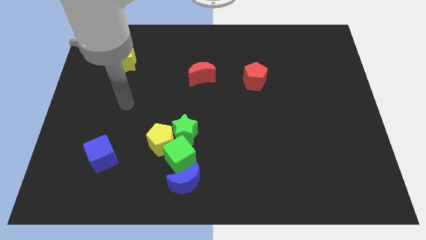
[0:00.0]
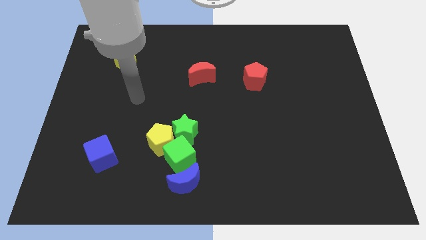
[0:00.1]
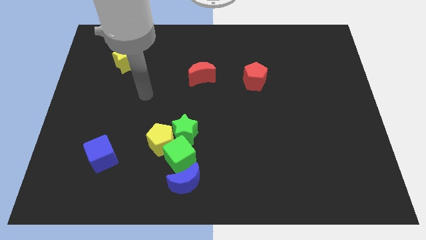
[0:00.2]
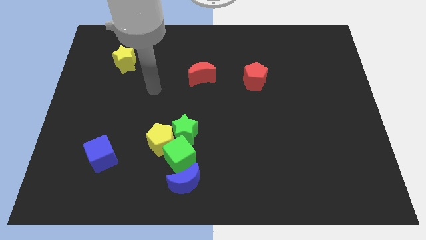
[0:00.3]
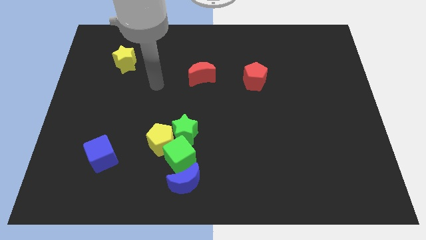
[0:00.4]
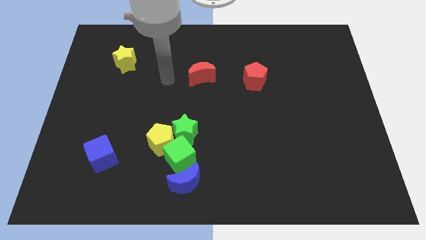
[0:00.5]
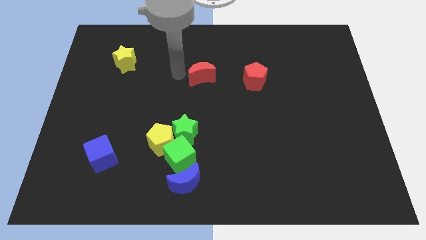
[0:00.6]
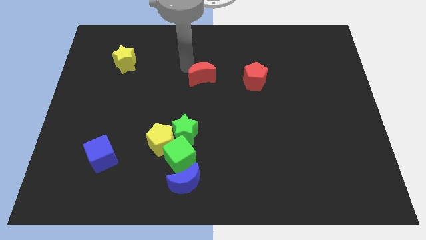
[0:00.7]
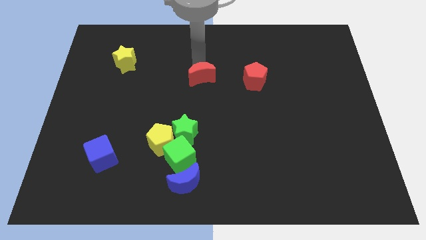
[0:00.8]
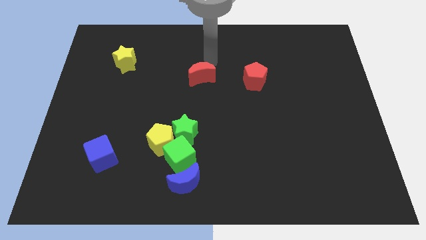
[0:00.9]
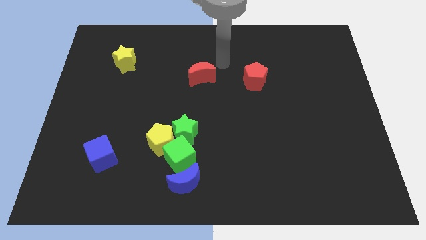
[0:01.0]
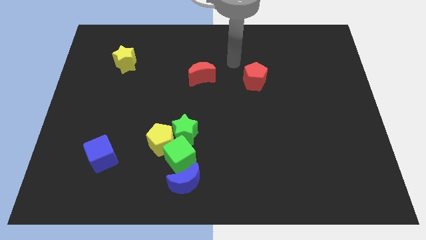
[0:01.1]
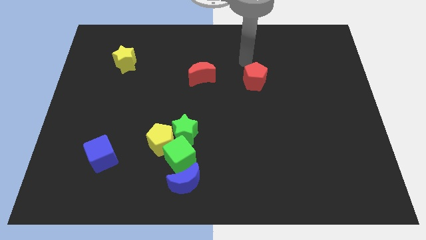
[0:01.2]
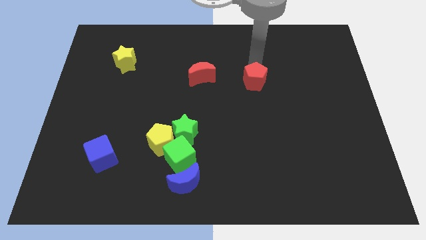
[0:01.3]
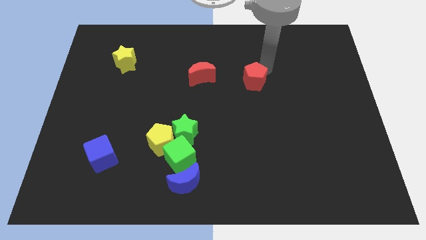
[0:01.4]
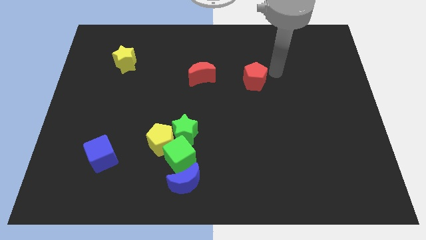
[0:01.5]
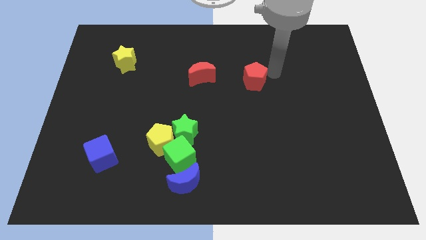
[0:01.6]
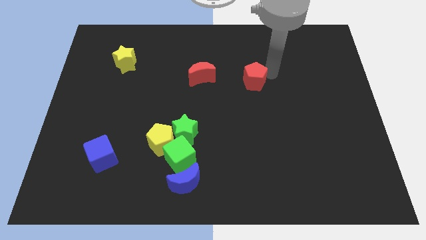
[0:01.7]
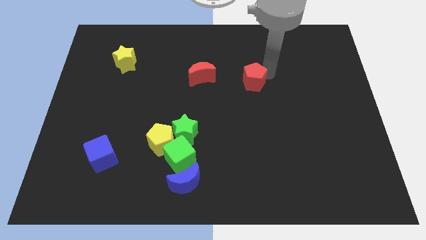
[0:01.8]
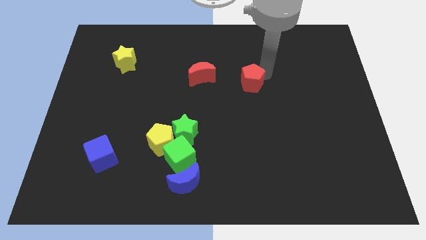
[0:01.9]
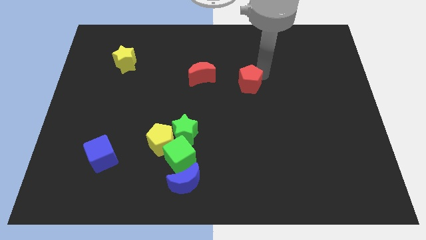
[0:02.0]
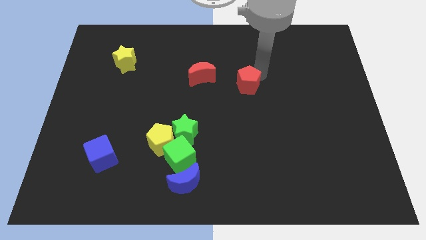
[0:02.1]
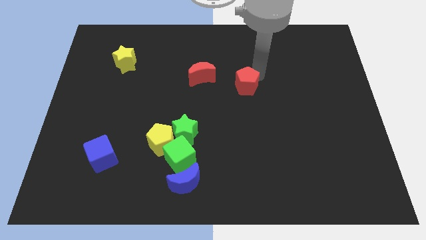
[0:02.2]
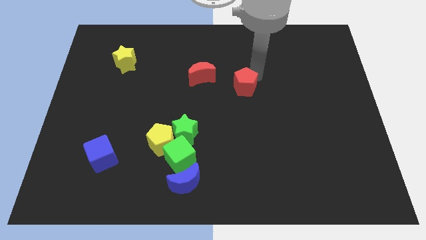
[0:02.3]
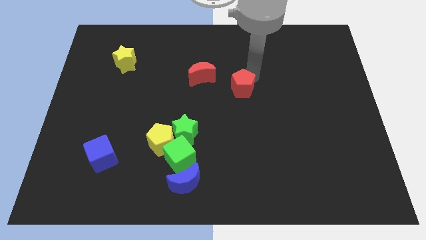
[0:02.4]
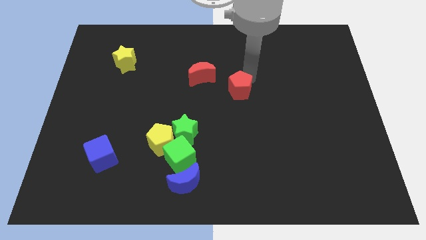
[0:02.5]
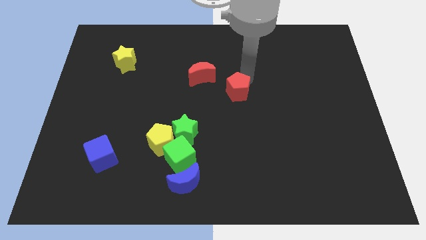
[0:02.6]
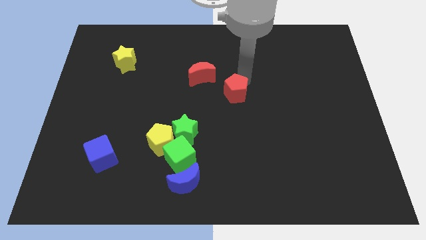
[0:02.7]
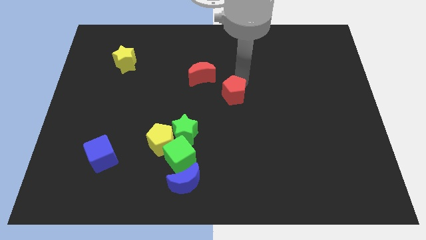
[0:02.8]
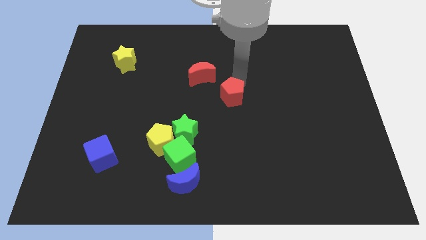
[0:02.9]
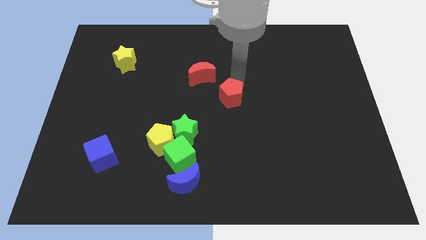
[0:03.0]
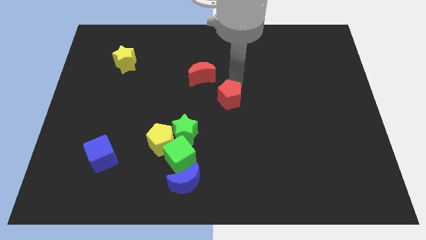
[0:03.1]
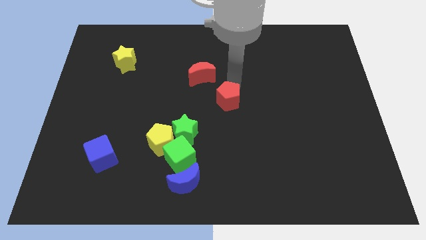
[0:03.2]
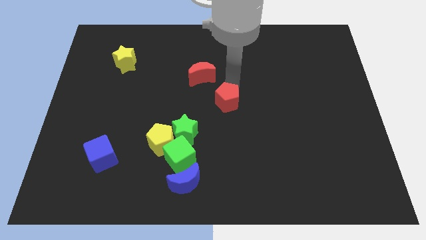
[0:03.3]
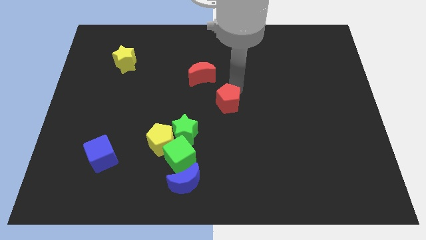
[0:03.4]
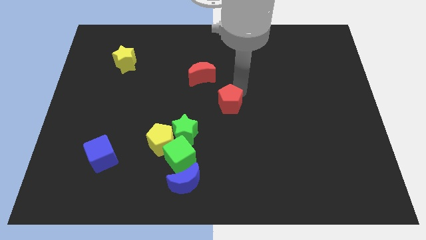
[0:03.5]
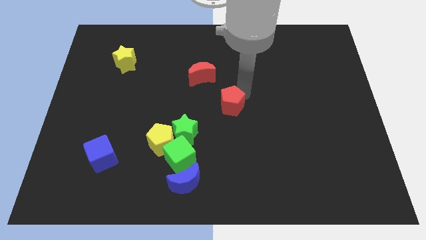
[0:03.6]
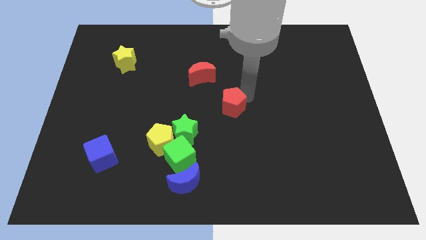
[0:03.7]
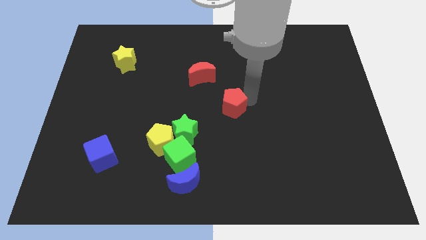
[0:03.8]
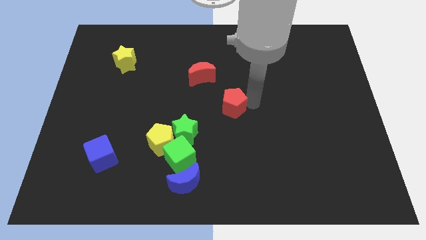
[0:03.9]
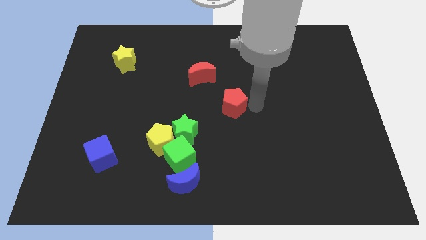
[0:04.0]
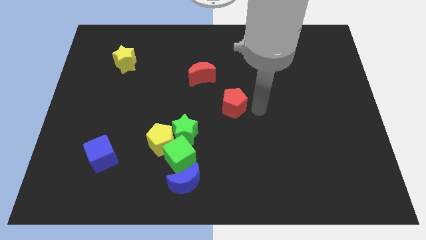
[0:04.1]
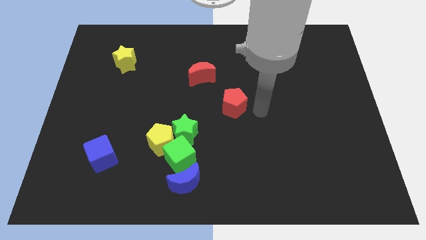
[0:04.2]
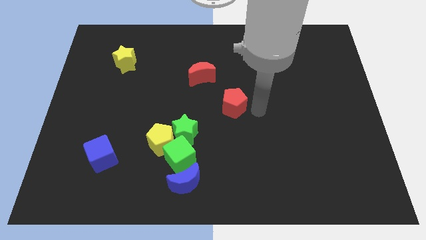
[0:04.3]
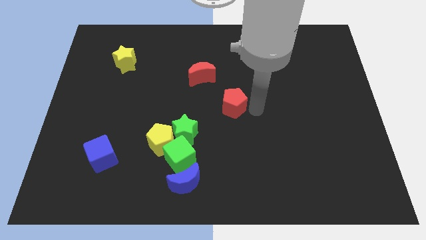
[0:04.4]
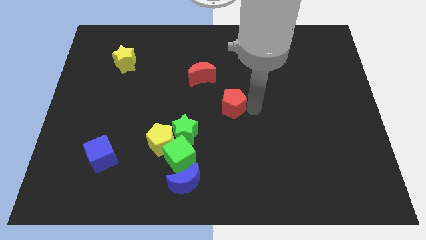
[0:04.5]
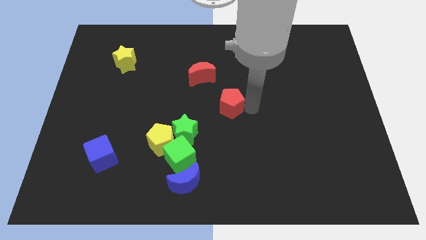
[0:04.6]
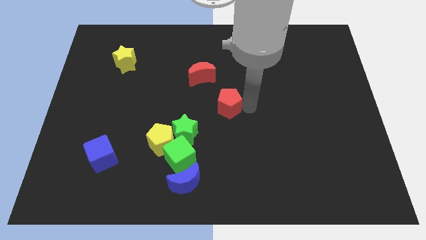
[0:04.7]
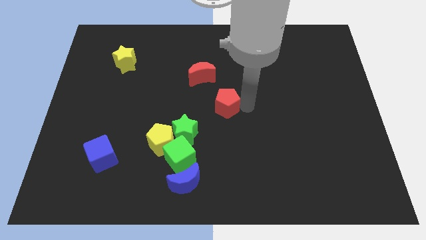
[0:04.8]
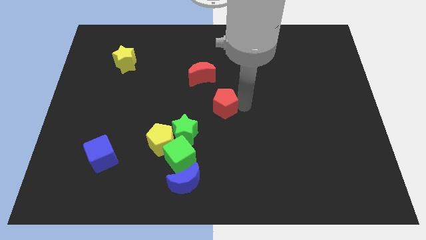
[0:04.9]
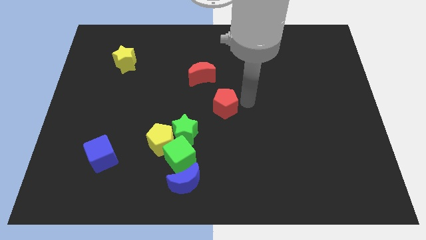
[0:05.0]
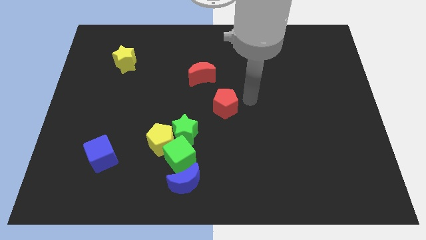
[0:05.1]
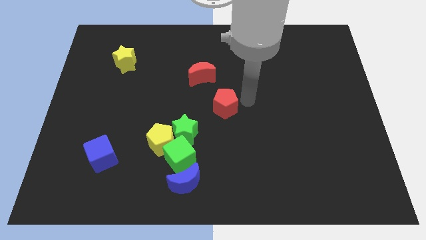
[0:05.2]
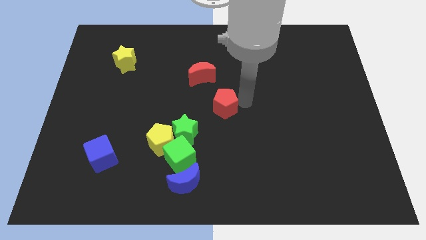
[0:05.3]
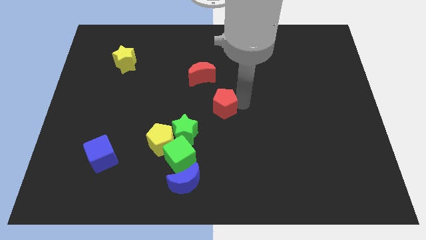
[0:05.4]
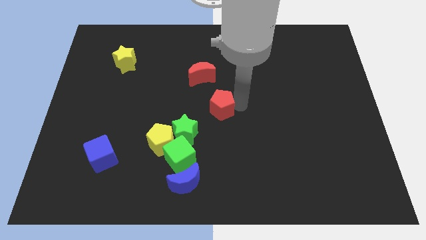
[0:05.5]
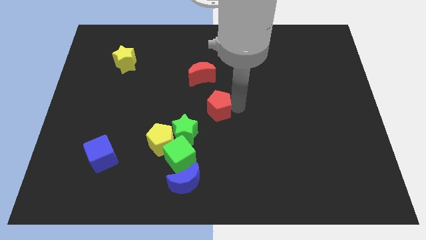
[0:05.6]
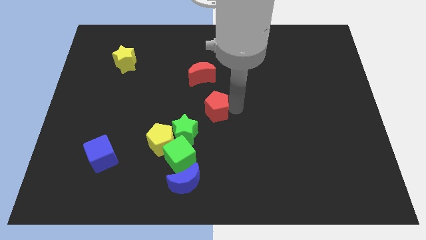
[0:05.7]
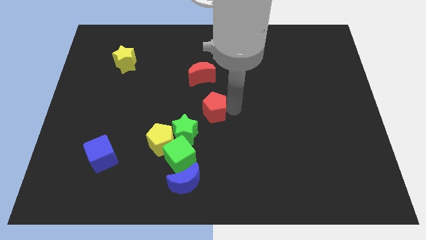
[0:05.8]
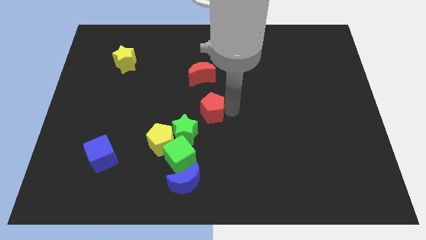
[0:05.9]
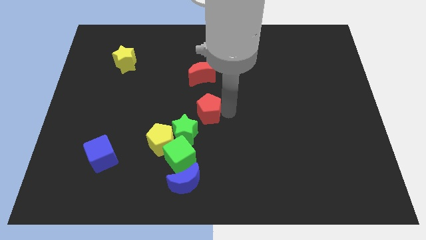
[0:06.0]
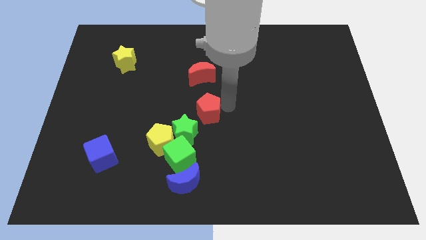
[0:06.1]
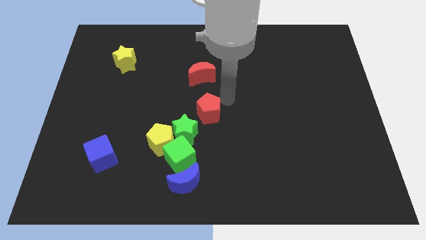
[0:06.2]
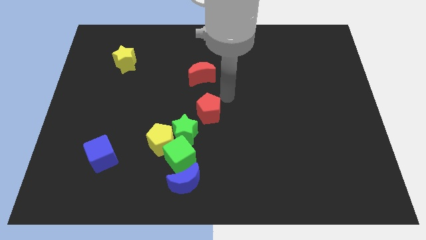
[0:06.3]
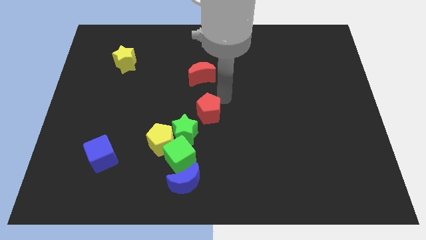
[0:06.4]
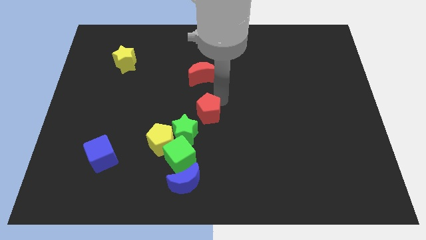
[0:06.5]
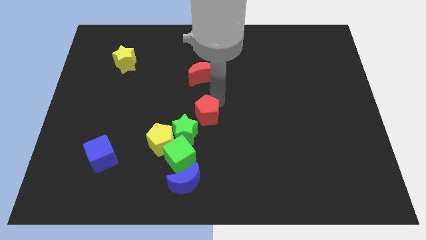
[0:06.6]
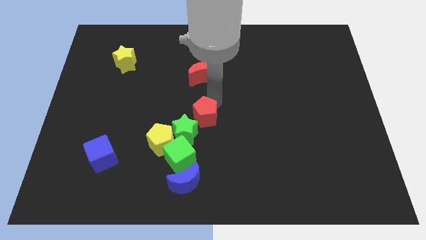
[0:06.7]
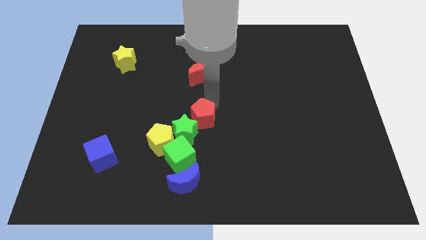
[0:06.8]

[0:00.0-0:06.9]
slide the red pentagon close to the green star
